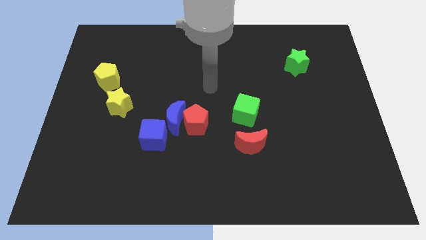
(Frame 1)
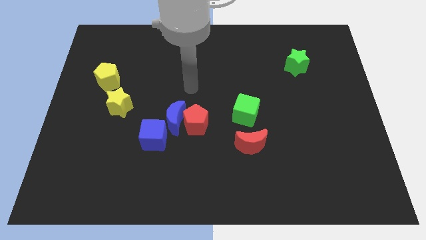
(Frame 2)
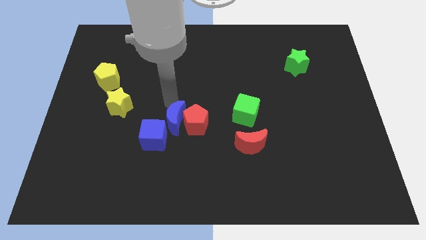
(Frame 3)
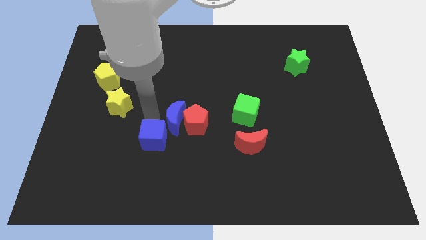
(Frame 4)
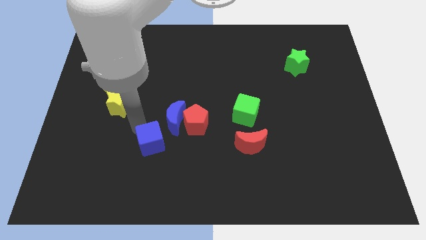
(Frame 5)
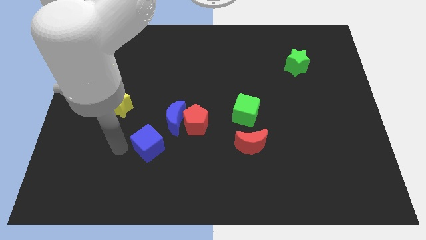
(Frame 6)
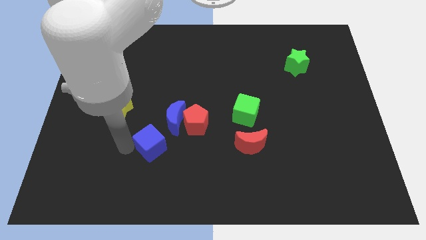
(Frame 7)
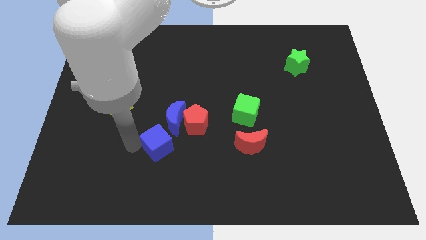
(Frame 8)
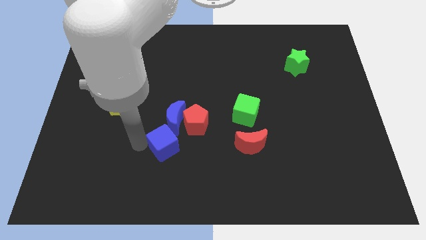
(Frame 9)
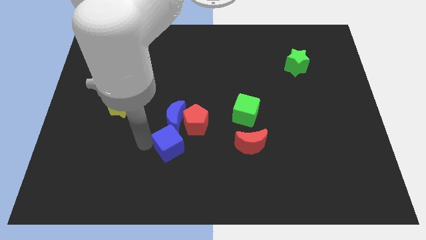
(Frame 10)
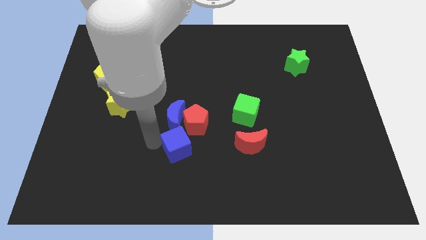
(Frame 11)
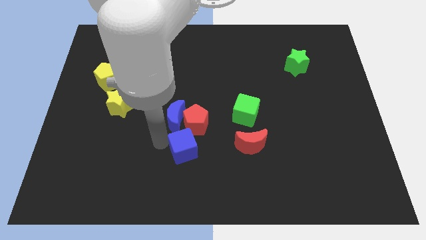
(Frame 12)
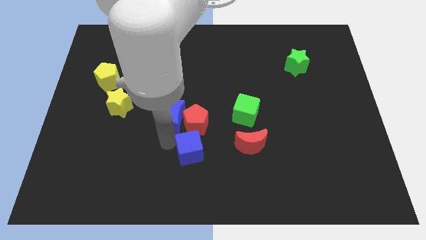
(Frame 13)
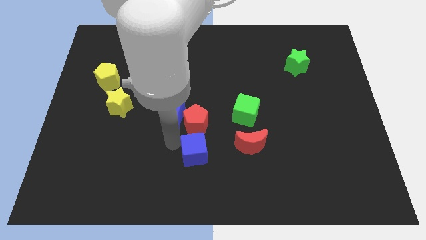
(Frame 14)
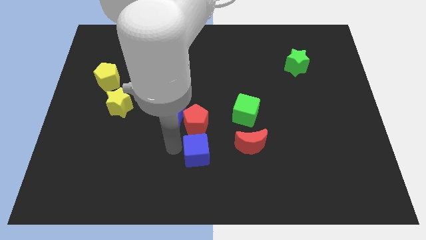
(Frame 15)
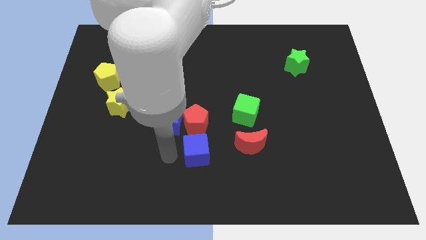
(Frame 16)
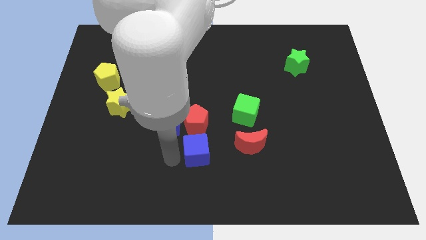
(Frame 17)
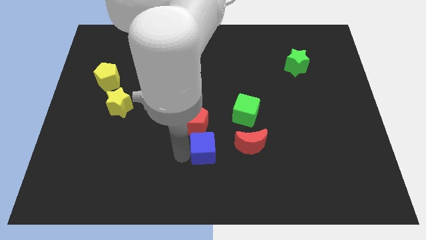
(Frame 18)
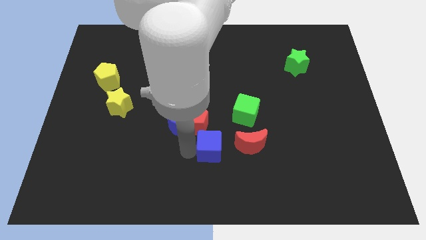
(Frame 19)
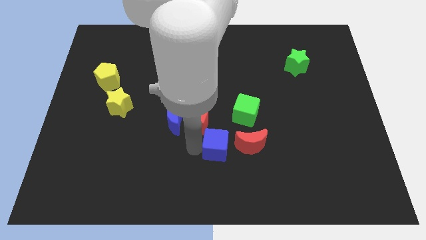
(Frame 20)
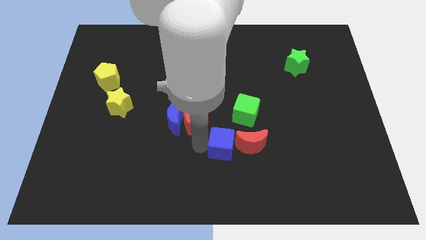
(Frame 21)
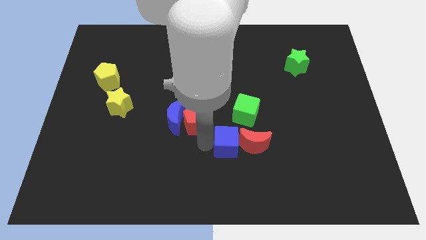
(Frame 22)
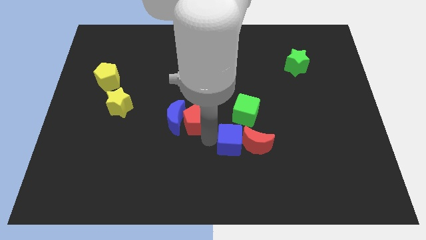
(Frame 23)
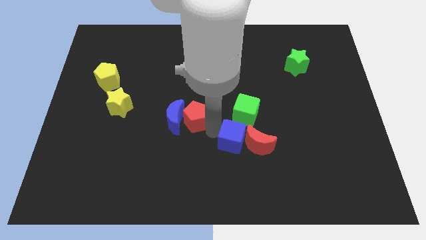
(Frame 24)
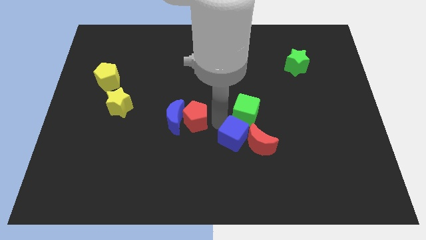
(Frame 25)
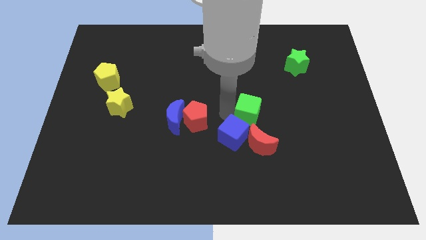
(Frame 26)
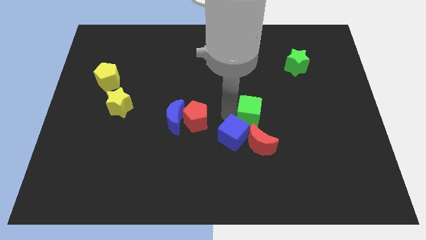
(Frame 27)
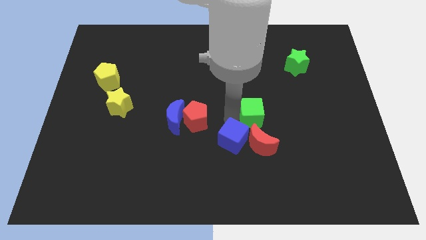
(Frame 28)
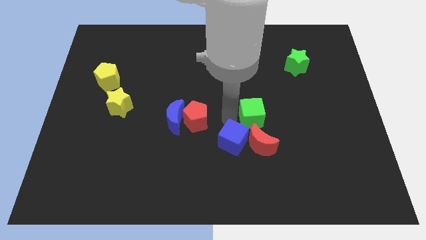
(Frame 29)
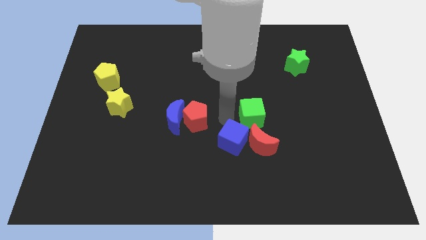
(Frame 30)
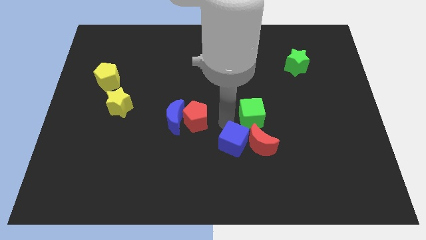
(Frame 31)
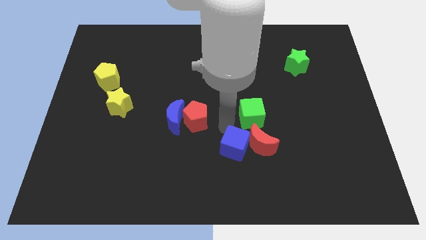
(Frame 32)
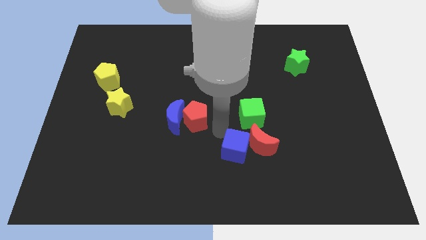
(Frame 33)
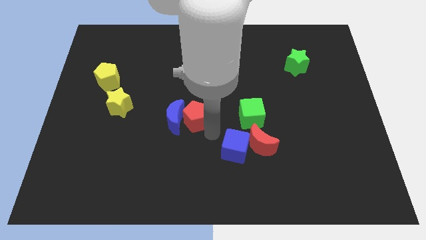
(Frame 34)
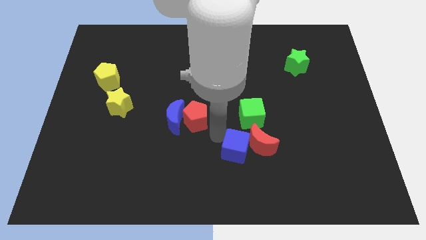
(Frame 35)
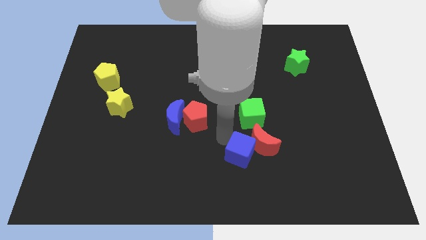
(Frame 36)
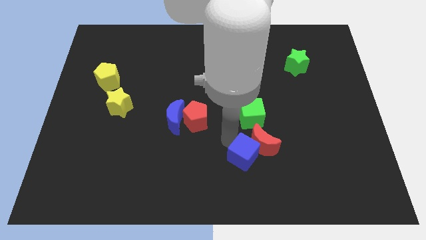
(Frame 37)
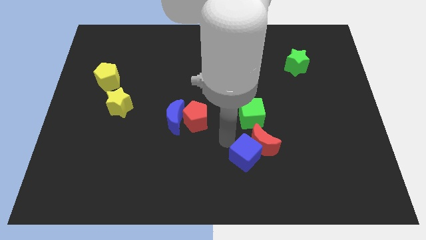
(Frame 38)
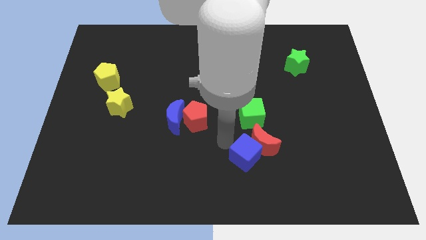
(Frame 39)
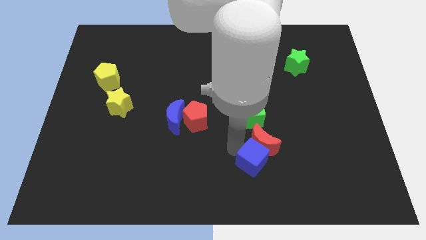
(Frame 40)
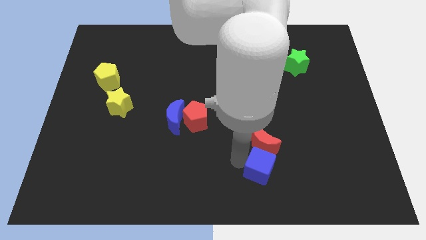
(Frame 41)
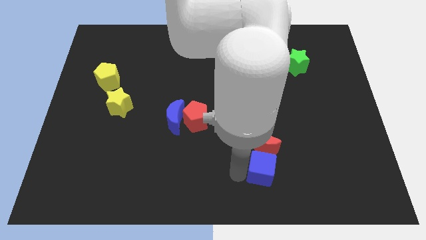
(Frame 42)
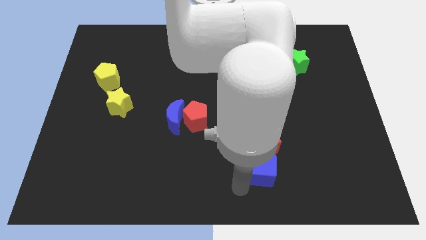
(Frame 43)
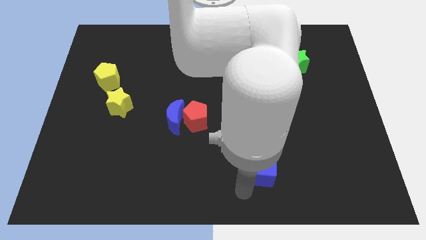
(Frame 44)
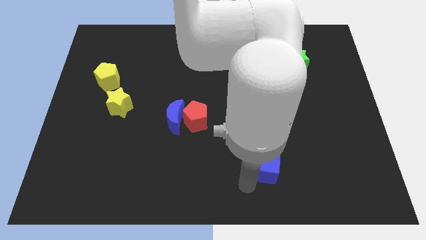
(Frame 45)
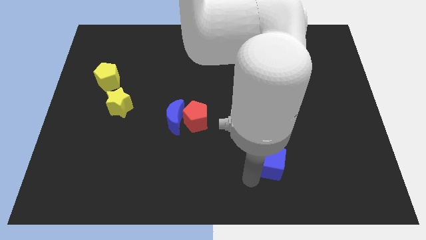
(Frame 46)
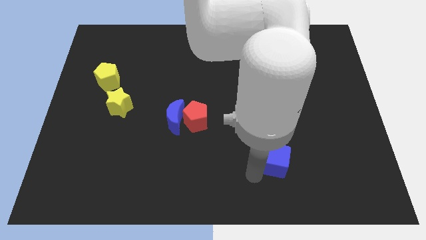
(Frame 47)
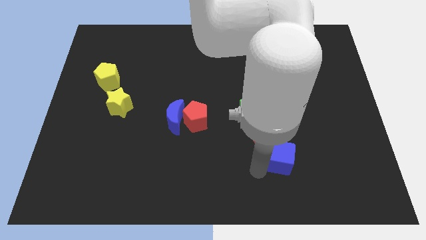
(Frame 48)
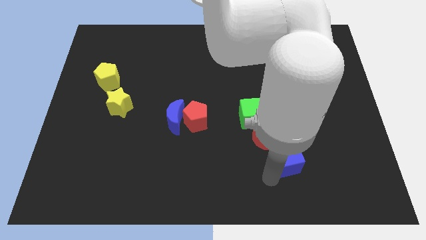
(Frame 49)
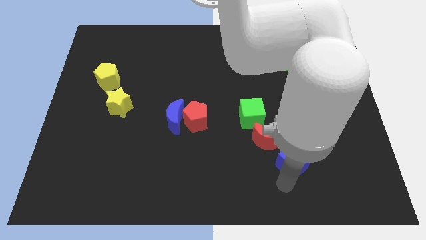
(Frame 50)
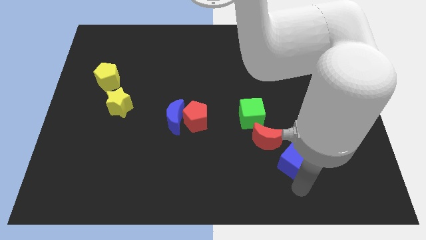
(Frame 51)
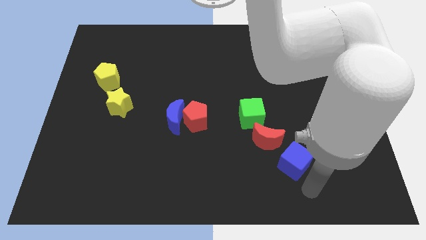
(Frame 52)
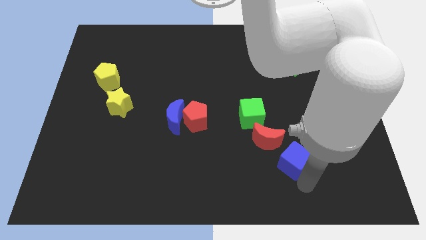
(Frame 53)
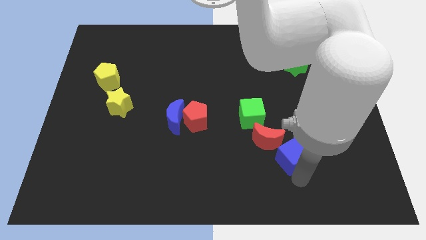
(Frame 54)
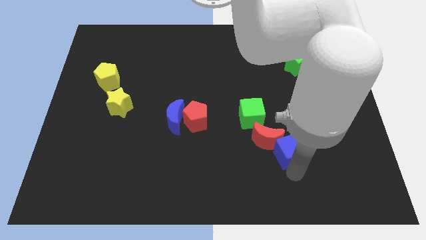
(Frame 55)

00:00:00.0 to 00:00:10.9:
push the blue cube to the bottom right of the green cube
